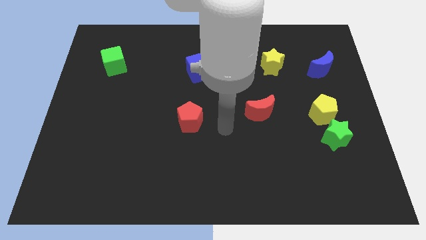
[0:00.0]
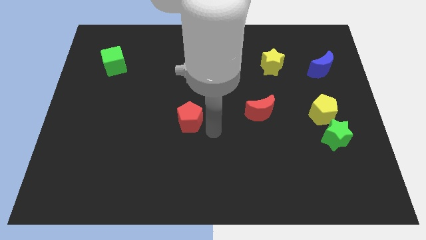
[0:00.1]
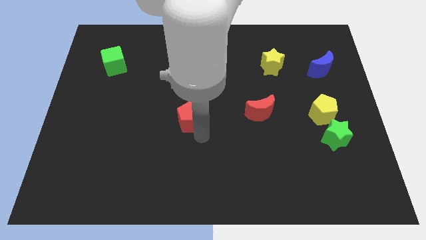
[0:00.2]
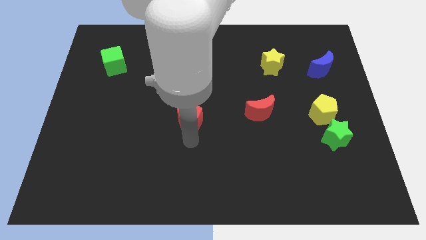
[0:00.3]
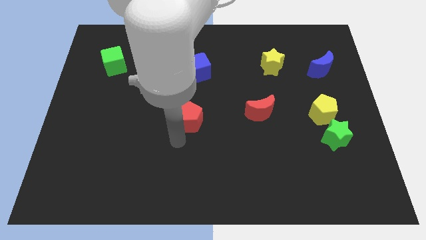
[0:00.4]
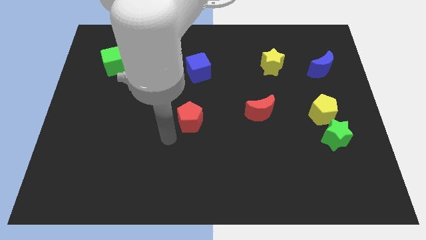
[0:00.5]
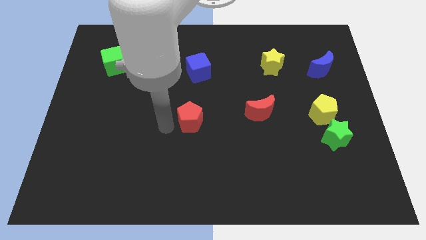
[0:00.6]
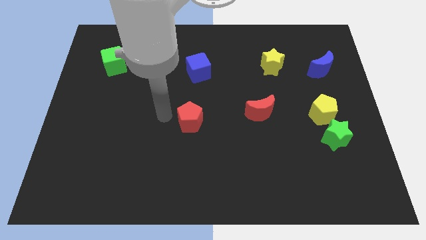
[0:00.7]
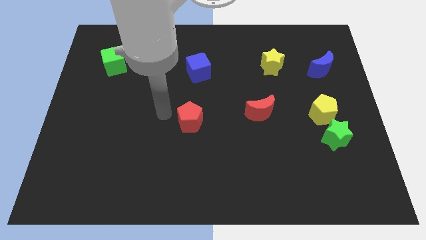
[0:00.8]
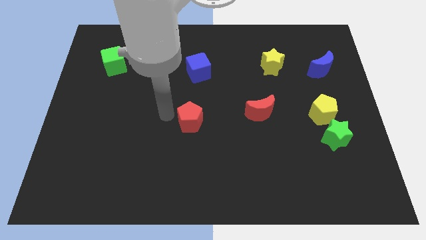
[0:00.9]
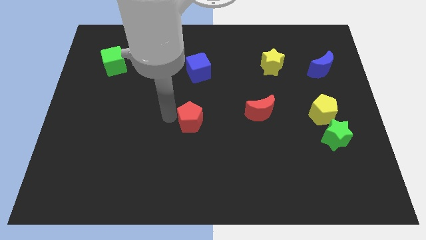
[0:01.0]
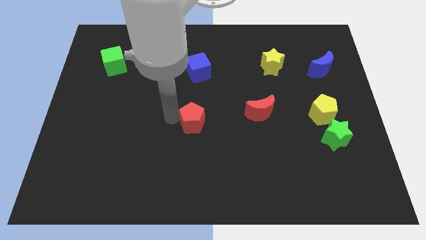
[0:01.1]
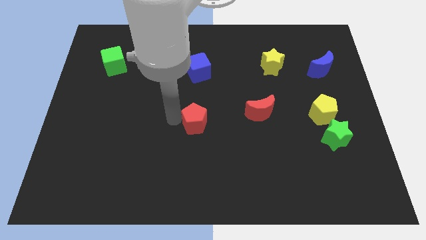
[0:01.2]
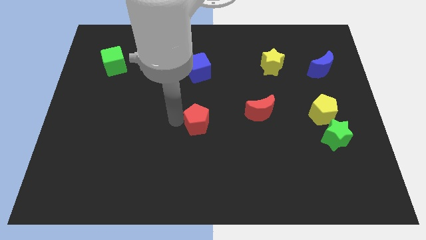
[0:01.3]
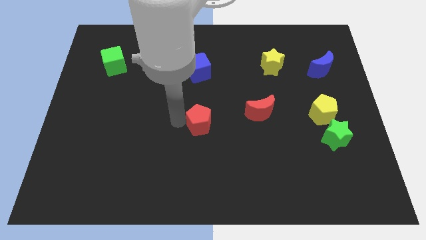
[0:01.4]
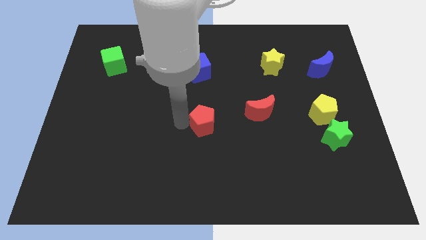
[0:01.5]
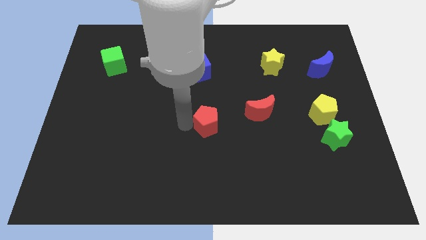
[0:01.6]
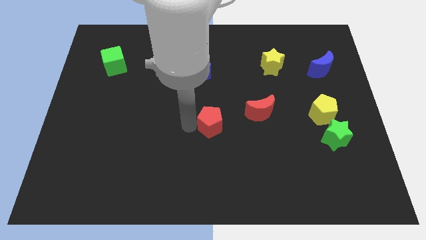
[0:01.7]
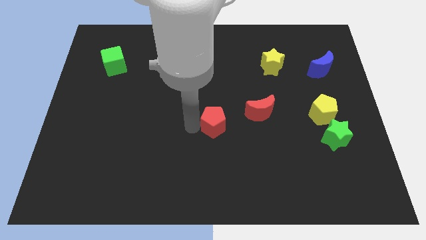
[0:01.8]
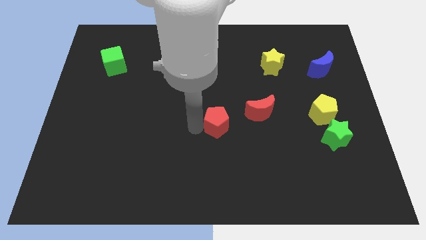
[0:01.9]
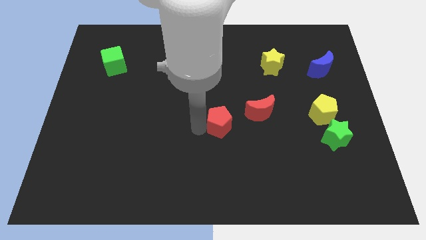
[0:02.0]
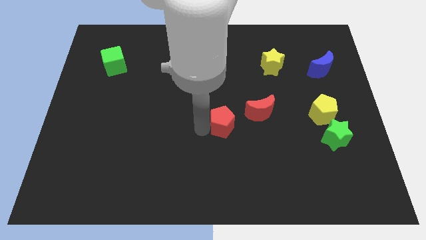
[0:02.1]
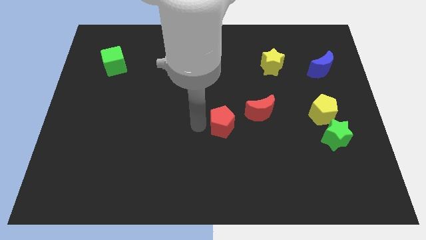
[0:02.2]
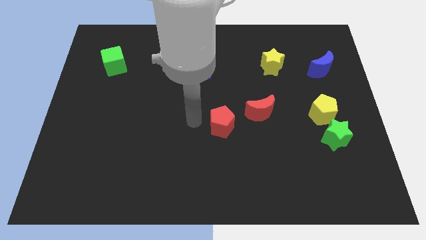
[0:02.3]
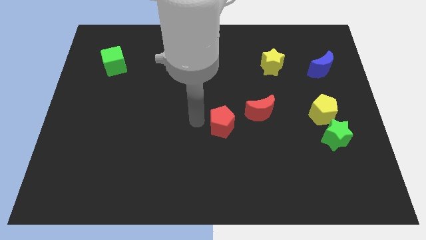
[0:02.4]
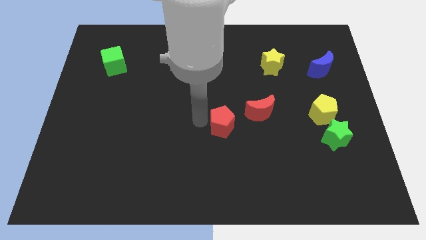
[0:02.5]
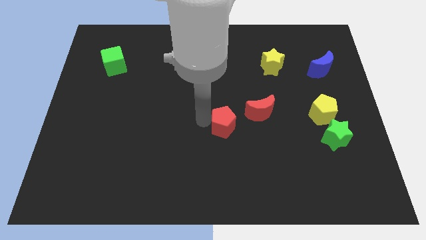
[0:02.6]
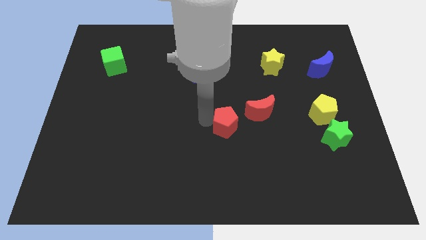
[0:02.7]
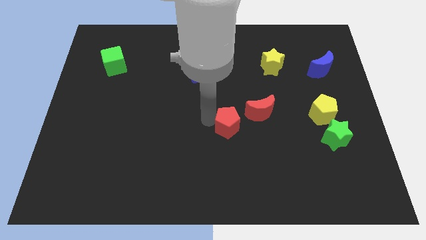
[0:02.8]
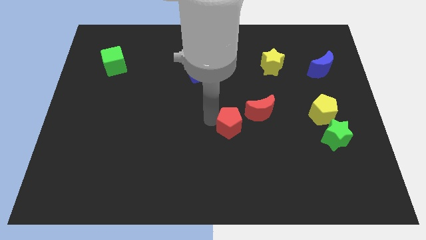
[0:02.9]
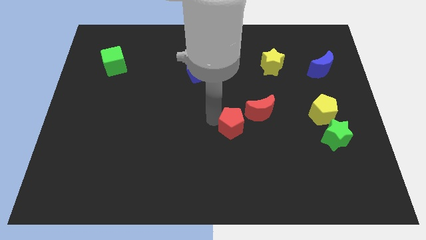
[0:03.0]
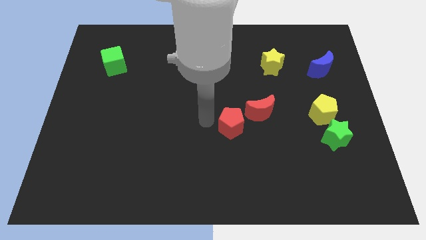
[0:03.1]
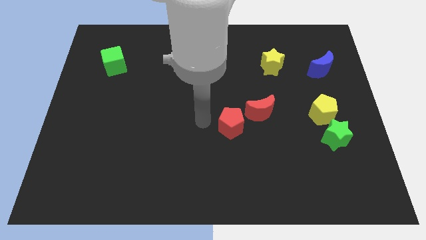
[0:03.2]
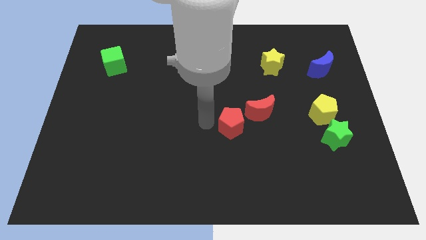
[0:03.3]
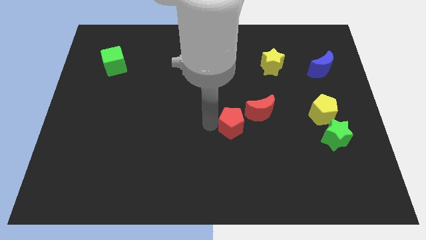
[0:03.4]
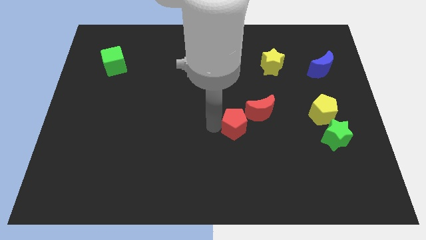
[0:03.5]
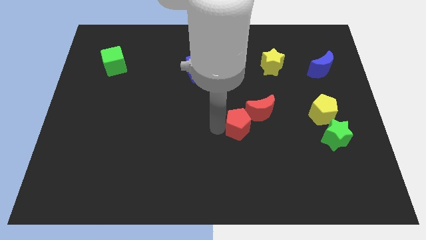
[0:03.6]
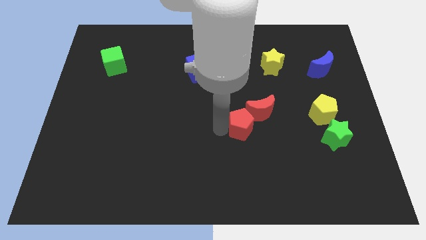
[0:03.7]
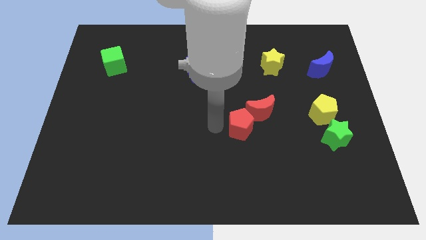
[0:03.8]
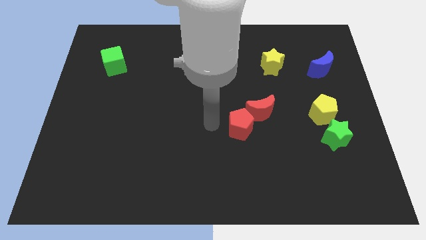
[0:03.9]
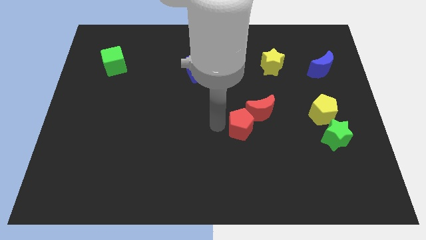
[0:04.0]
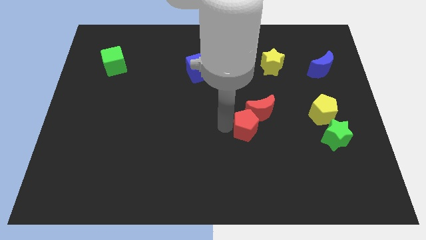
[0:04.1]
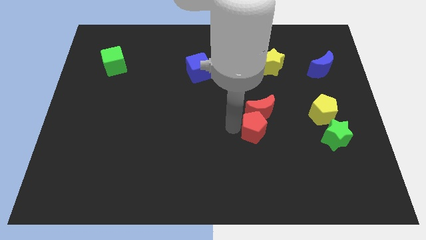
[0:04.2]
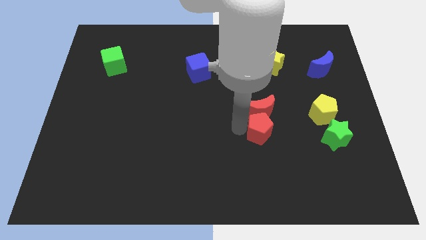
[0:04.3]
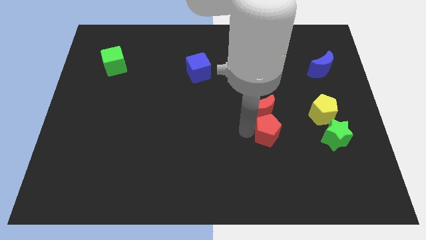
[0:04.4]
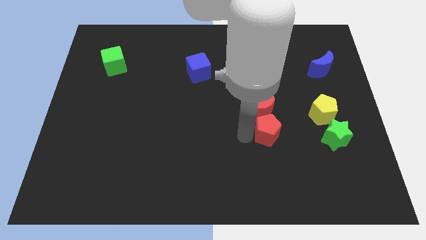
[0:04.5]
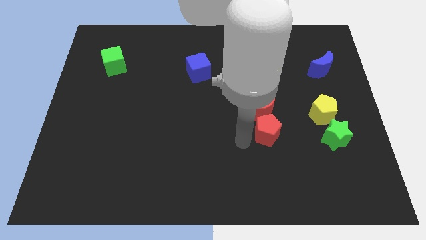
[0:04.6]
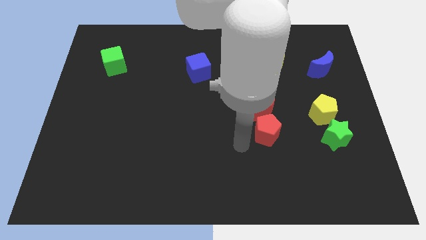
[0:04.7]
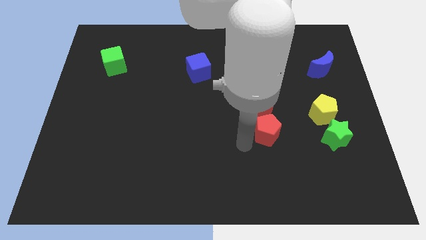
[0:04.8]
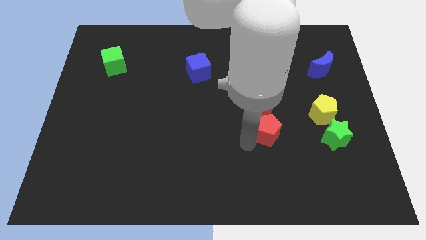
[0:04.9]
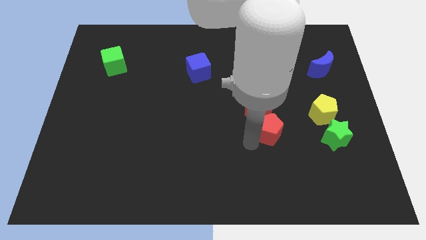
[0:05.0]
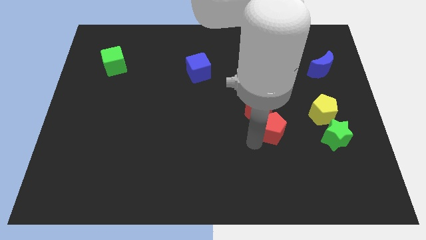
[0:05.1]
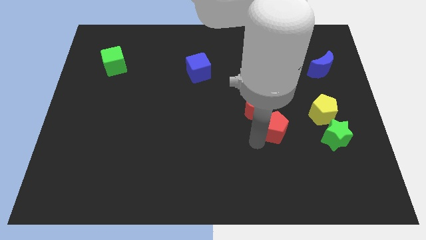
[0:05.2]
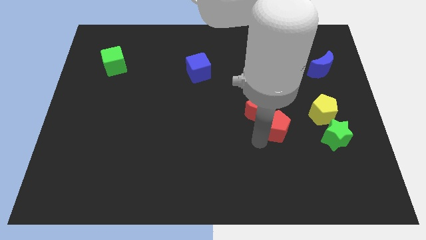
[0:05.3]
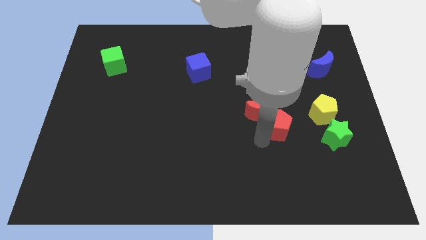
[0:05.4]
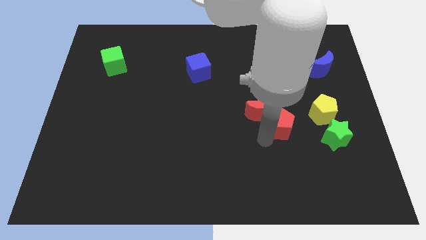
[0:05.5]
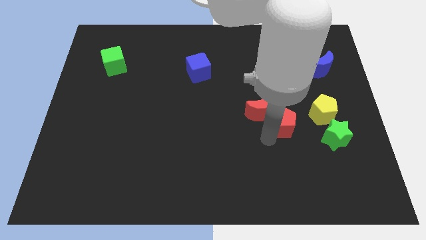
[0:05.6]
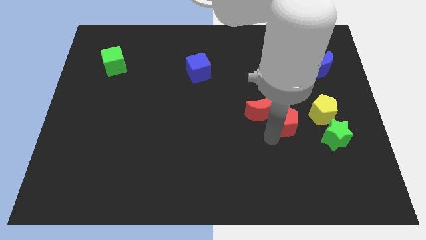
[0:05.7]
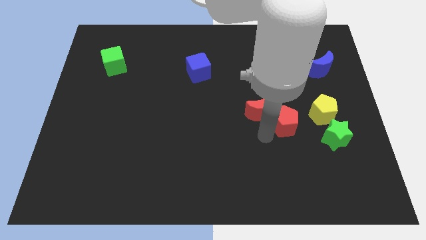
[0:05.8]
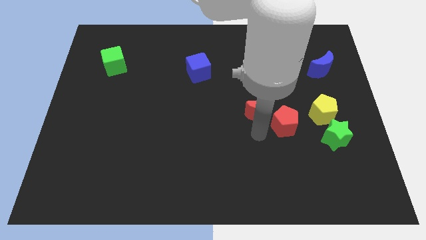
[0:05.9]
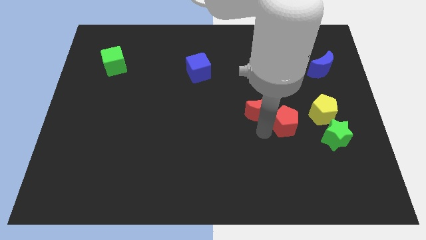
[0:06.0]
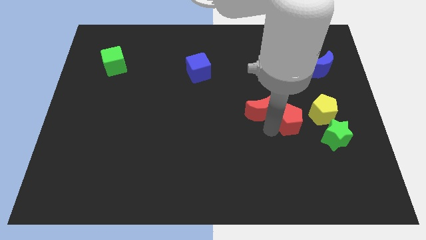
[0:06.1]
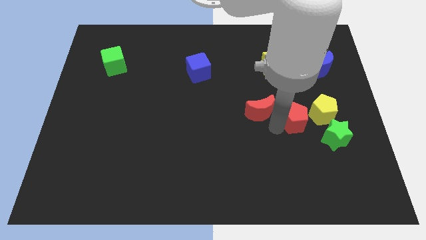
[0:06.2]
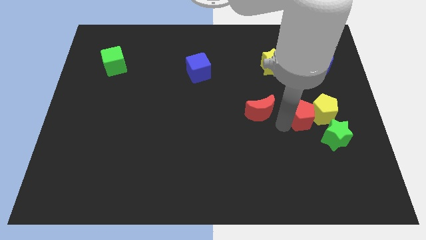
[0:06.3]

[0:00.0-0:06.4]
slide the red pentagon towards the yellow pentagon
